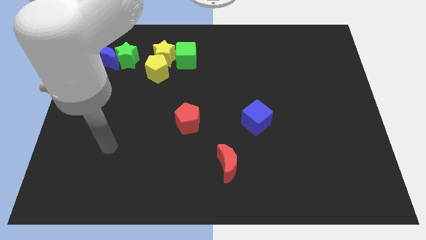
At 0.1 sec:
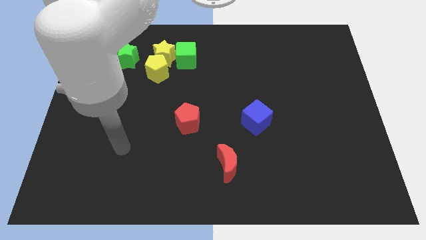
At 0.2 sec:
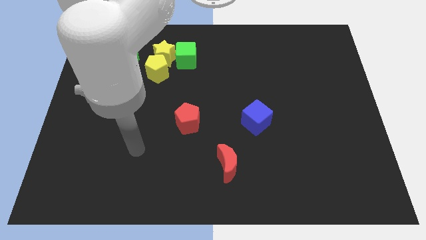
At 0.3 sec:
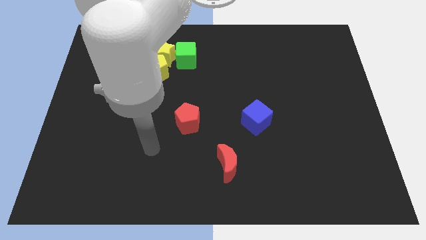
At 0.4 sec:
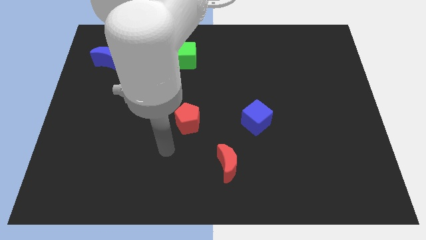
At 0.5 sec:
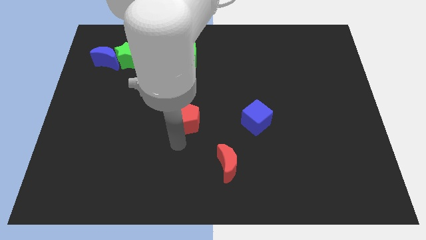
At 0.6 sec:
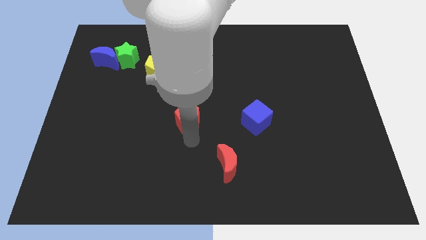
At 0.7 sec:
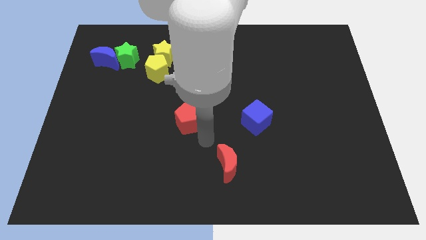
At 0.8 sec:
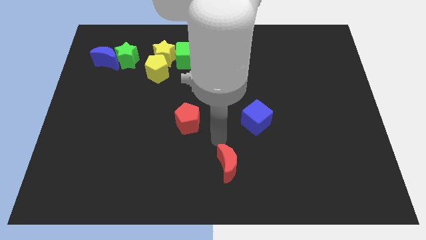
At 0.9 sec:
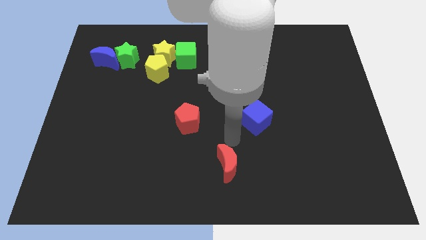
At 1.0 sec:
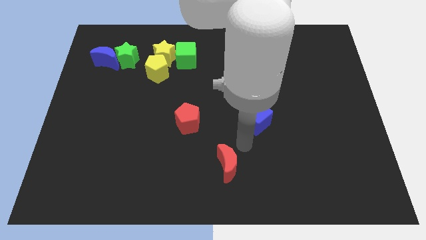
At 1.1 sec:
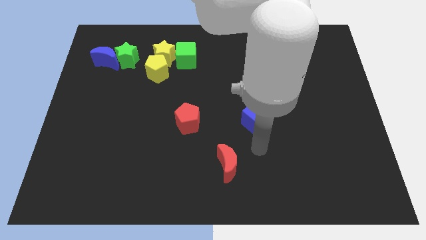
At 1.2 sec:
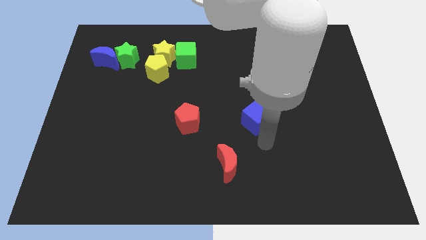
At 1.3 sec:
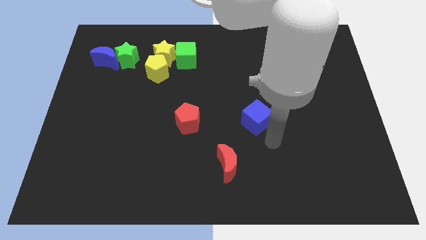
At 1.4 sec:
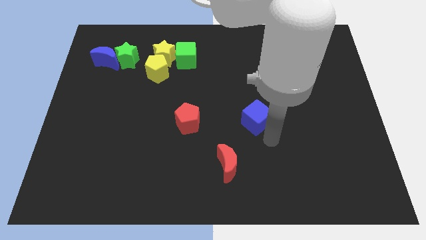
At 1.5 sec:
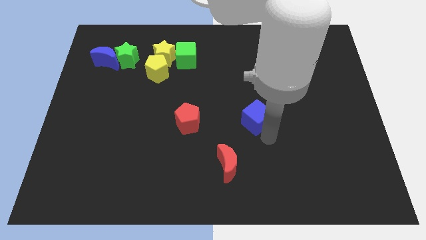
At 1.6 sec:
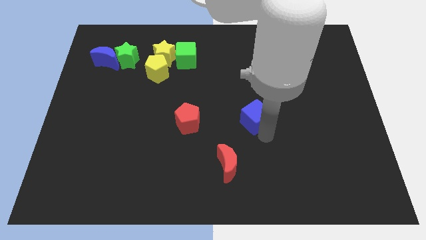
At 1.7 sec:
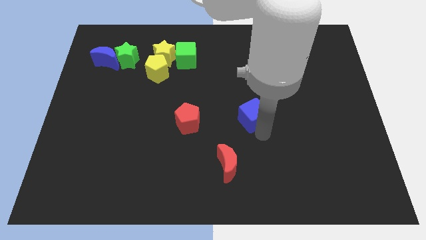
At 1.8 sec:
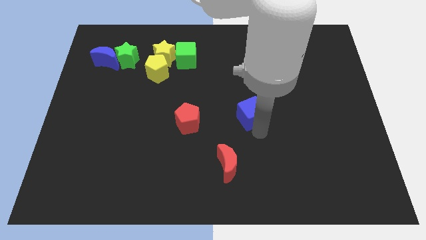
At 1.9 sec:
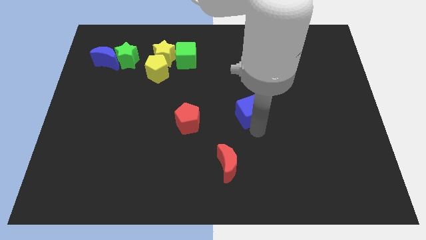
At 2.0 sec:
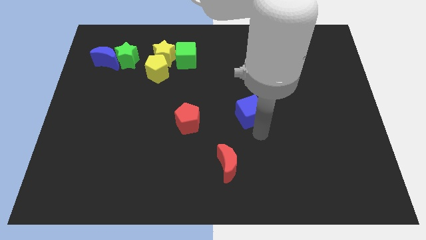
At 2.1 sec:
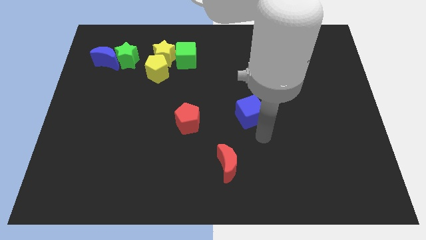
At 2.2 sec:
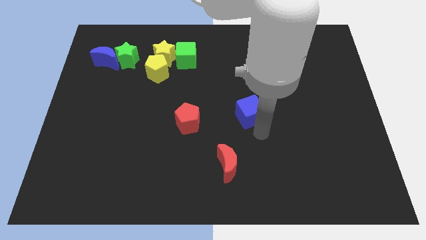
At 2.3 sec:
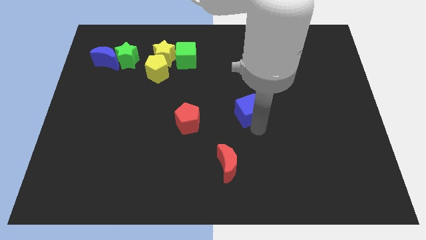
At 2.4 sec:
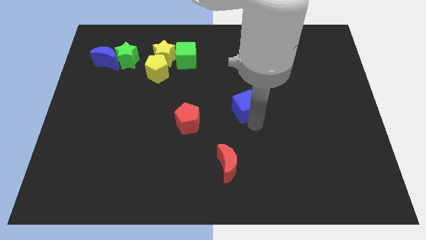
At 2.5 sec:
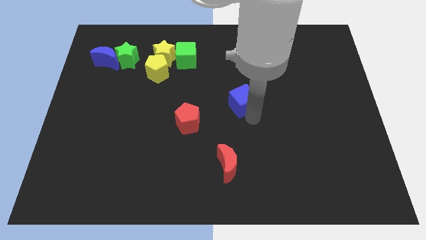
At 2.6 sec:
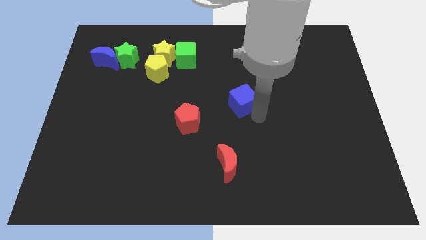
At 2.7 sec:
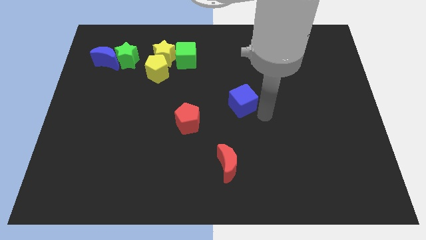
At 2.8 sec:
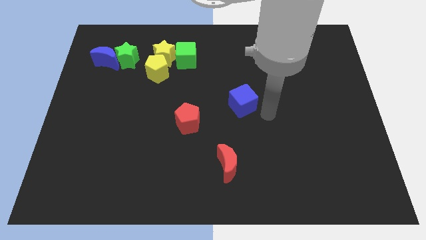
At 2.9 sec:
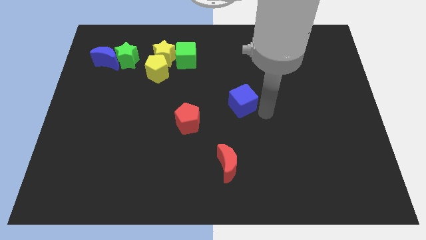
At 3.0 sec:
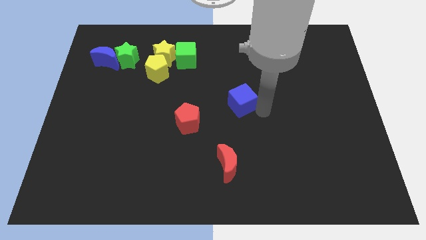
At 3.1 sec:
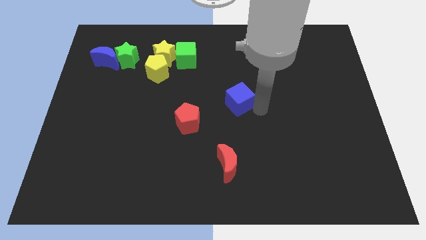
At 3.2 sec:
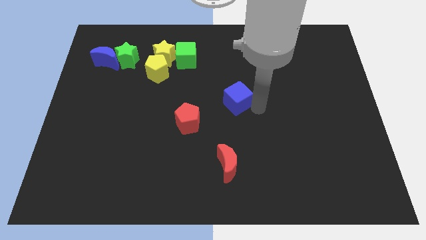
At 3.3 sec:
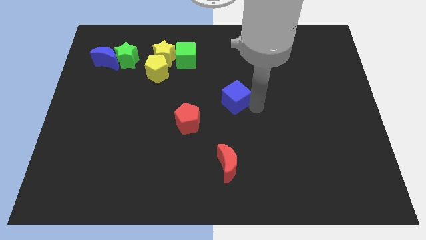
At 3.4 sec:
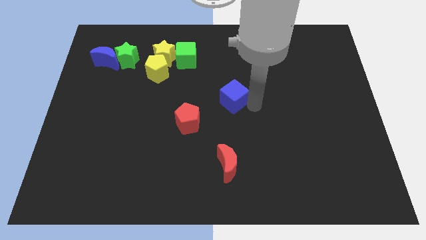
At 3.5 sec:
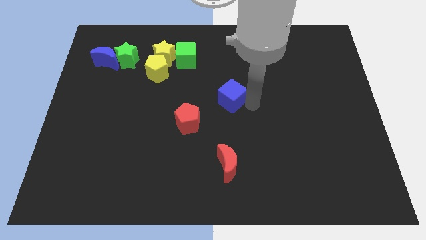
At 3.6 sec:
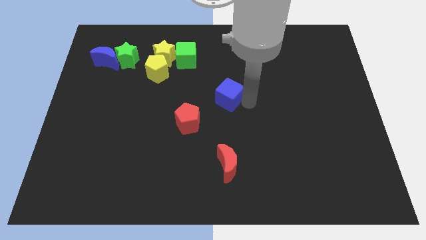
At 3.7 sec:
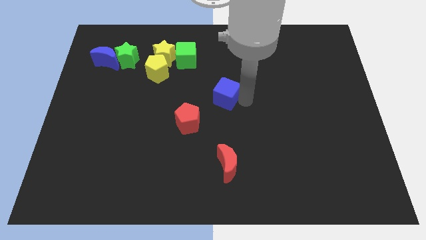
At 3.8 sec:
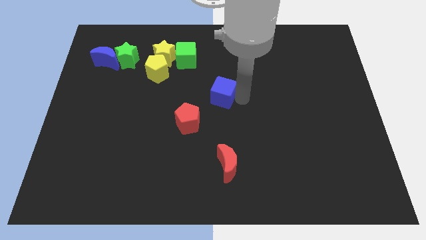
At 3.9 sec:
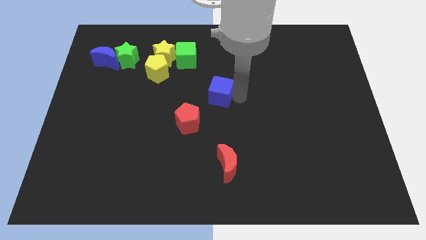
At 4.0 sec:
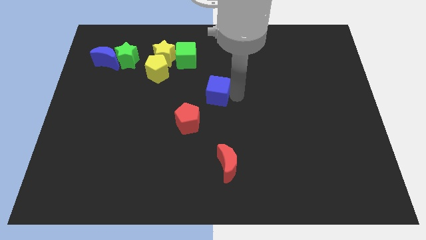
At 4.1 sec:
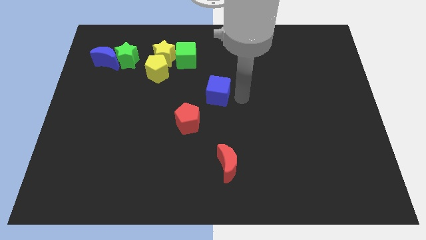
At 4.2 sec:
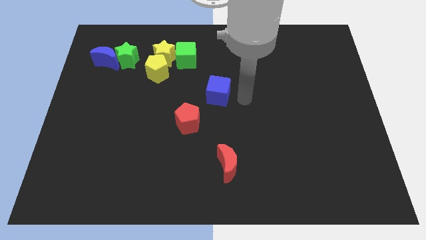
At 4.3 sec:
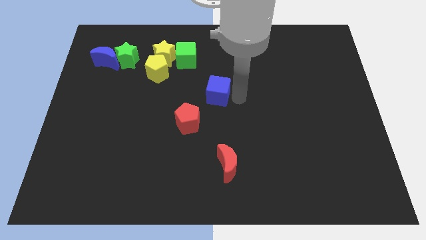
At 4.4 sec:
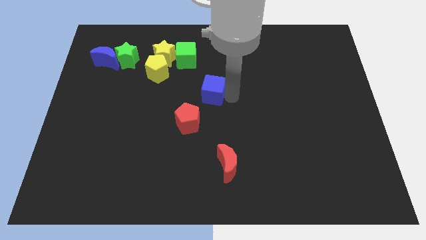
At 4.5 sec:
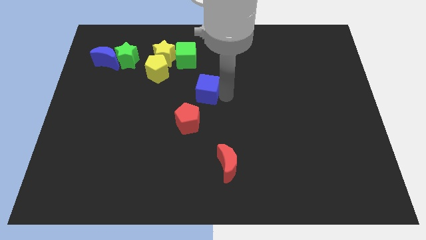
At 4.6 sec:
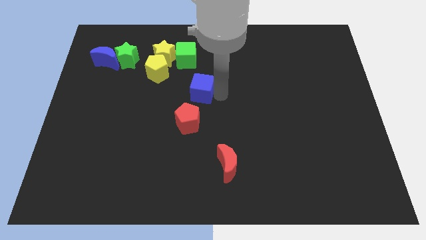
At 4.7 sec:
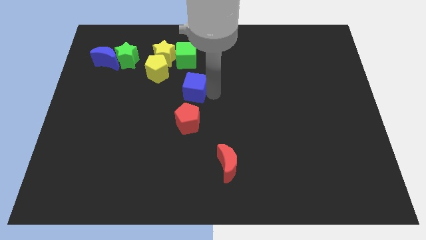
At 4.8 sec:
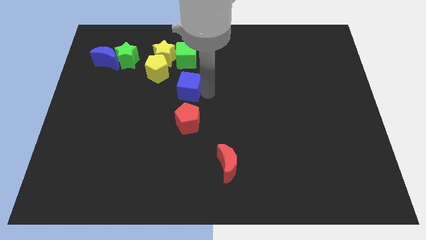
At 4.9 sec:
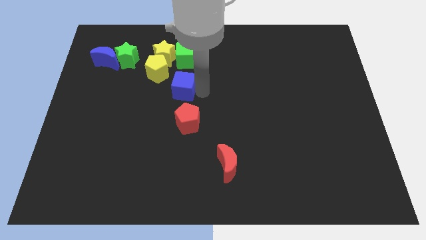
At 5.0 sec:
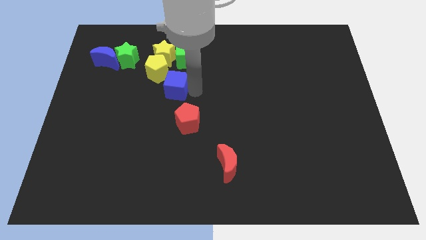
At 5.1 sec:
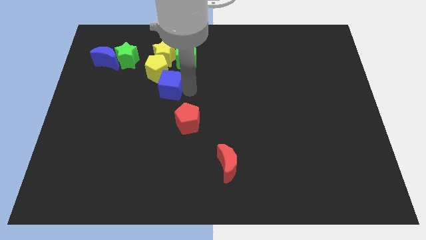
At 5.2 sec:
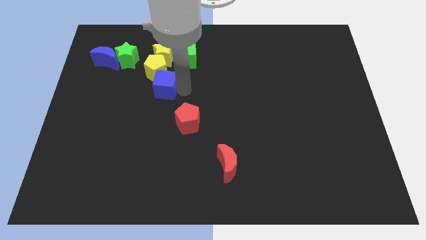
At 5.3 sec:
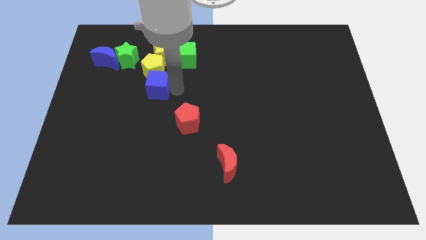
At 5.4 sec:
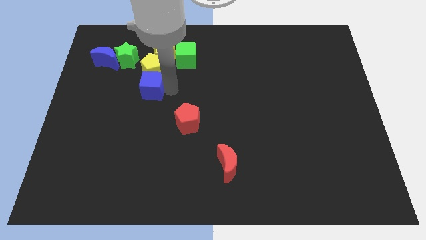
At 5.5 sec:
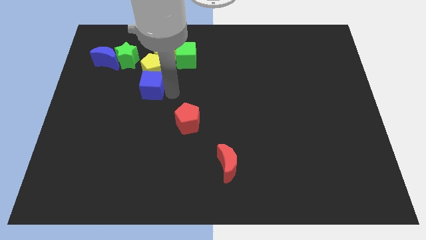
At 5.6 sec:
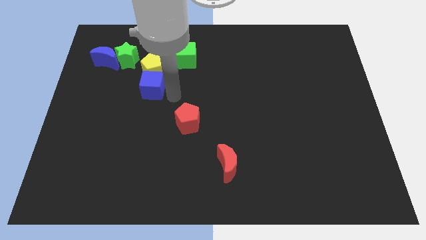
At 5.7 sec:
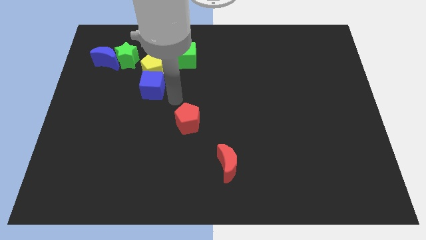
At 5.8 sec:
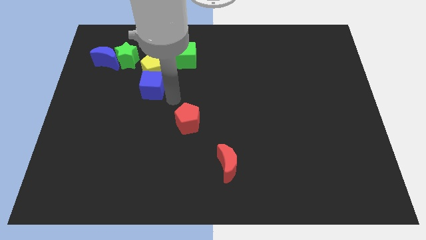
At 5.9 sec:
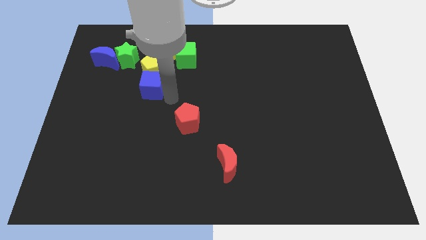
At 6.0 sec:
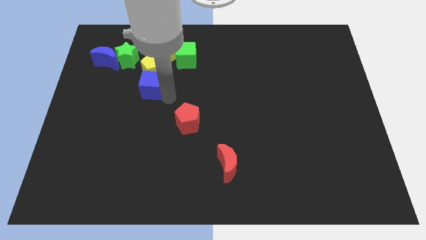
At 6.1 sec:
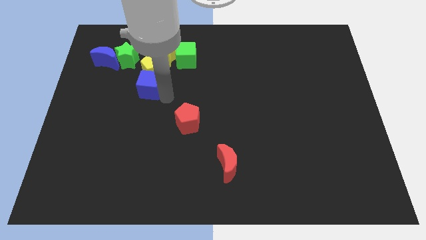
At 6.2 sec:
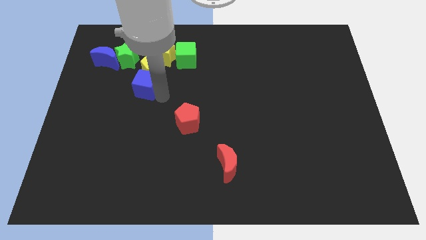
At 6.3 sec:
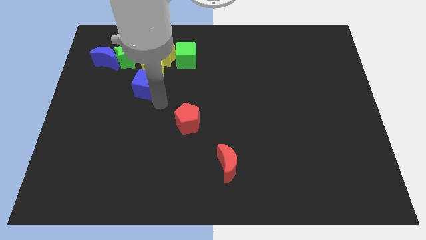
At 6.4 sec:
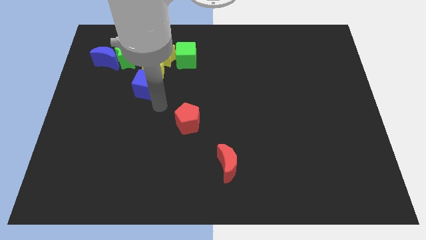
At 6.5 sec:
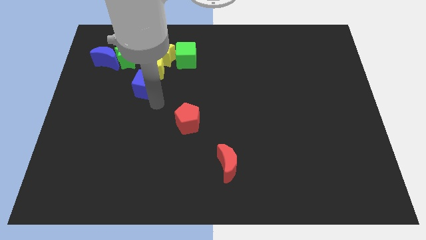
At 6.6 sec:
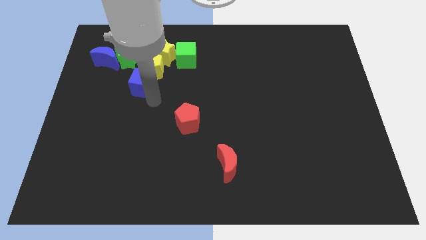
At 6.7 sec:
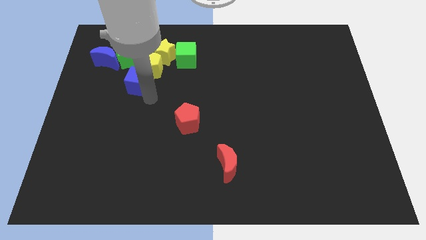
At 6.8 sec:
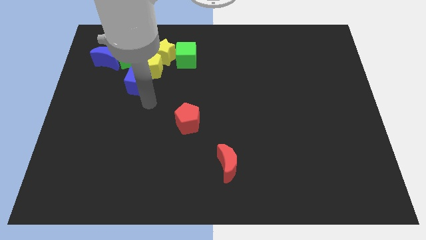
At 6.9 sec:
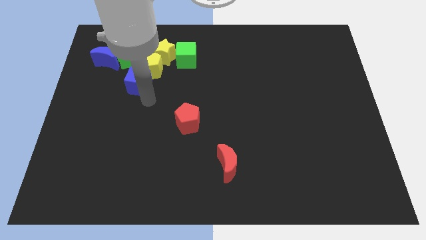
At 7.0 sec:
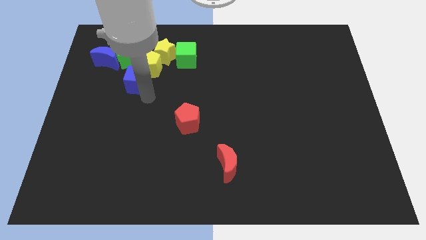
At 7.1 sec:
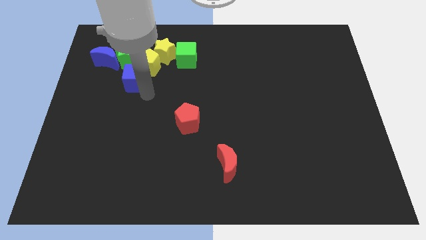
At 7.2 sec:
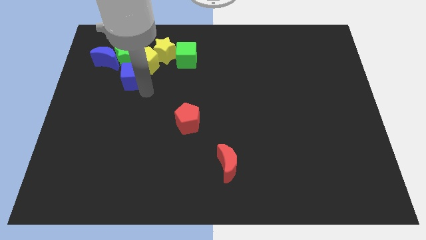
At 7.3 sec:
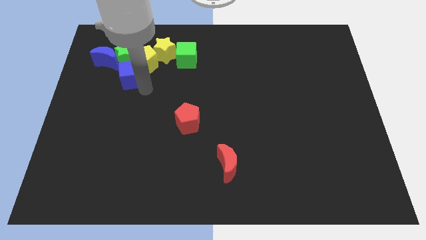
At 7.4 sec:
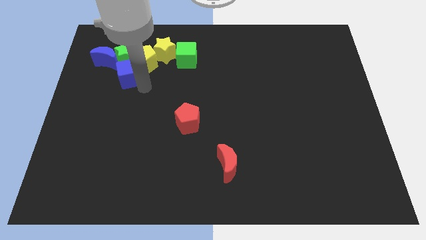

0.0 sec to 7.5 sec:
move the blue cube to the green star
